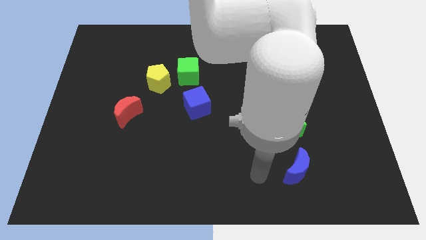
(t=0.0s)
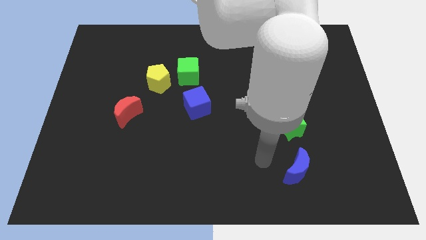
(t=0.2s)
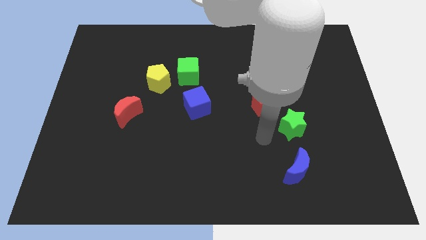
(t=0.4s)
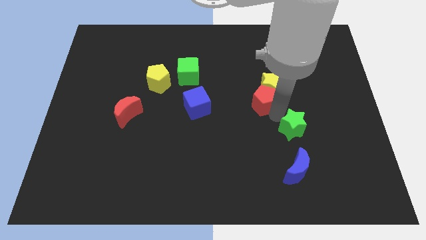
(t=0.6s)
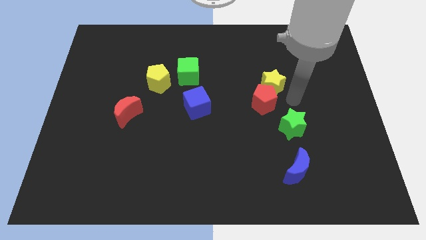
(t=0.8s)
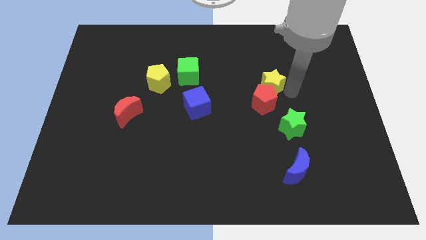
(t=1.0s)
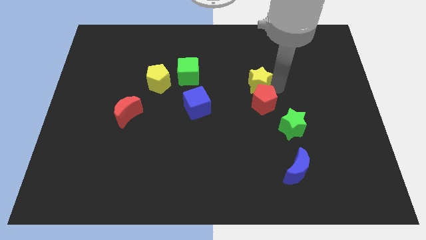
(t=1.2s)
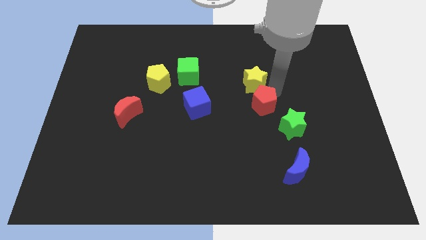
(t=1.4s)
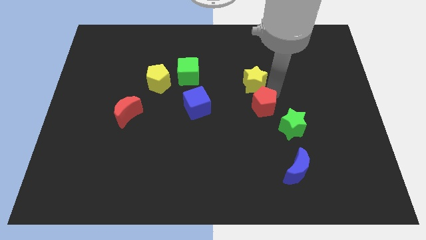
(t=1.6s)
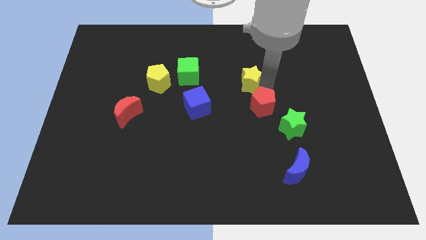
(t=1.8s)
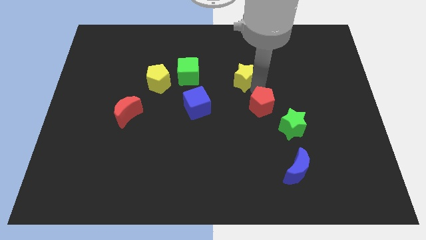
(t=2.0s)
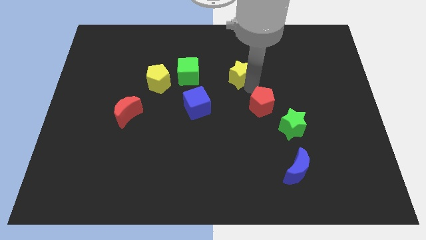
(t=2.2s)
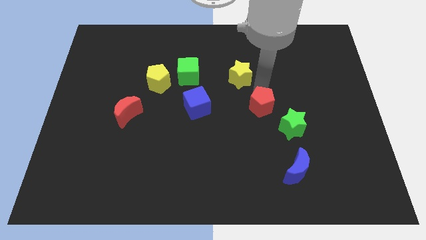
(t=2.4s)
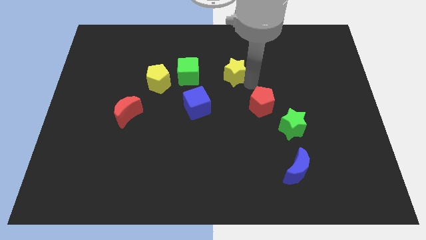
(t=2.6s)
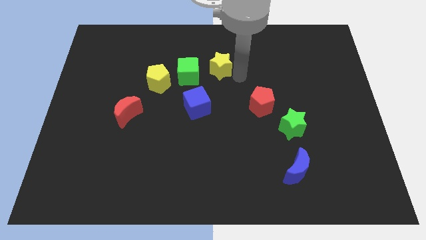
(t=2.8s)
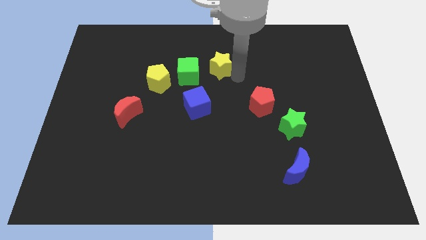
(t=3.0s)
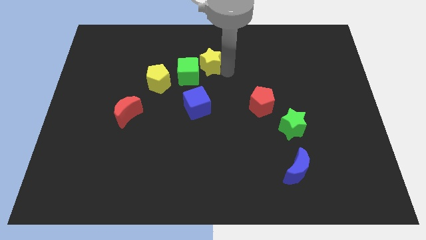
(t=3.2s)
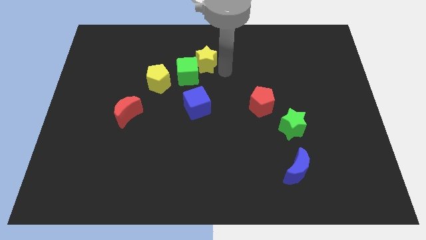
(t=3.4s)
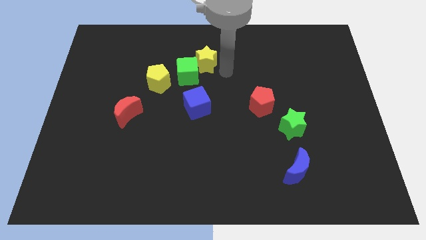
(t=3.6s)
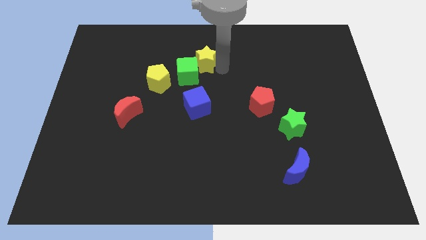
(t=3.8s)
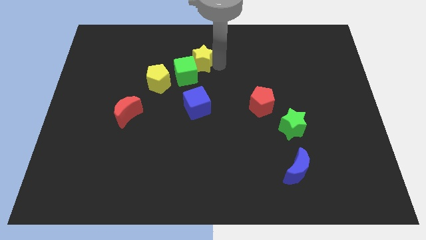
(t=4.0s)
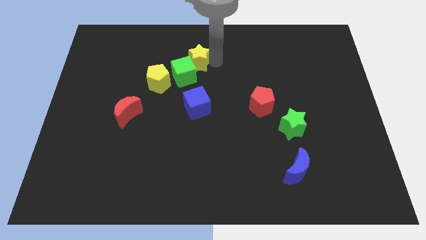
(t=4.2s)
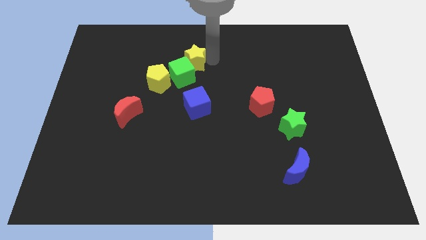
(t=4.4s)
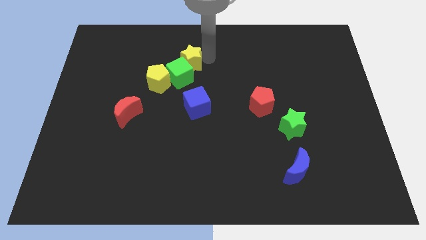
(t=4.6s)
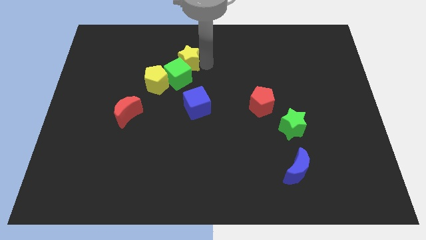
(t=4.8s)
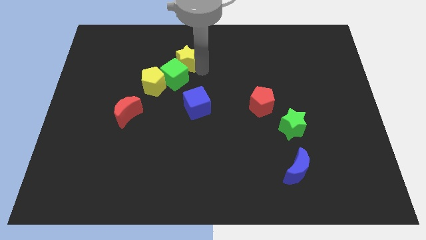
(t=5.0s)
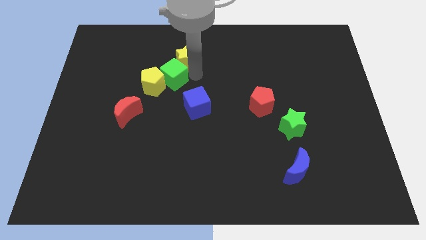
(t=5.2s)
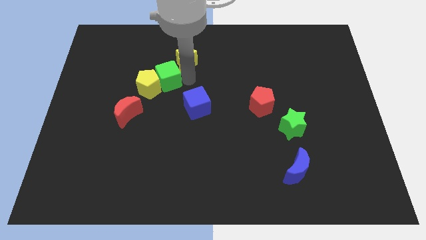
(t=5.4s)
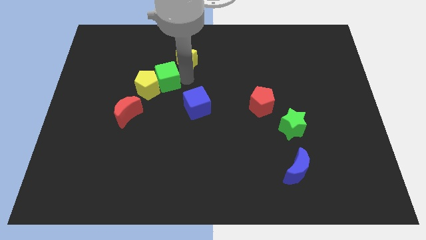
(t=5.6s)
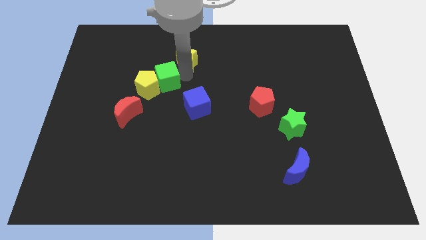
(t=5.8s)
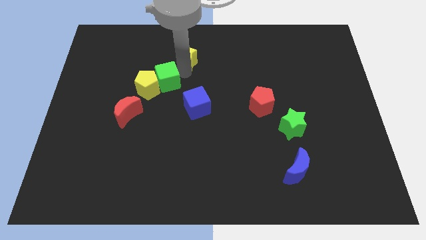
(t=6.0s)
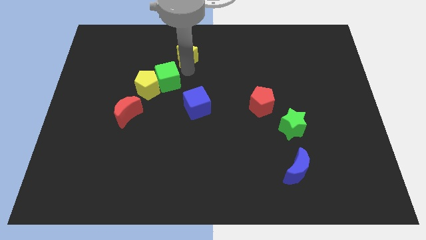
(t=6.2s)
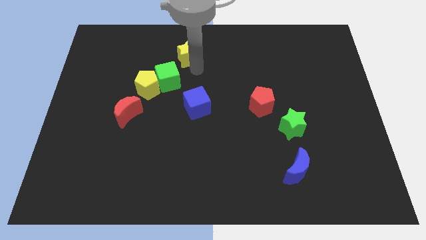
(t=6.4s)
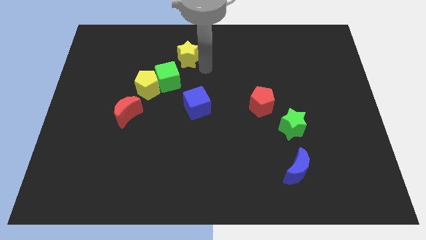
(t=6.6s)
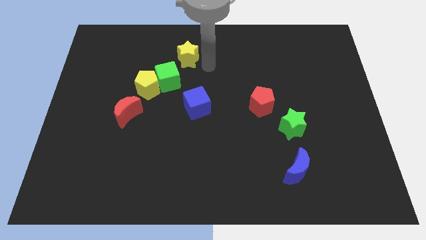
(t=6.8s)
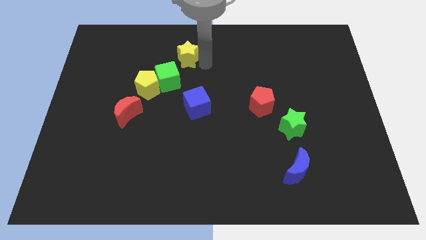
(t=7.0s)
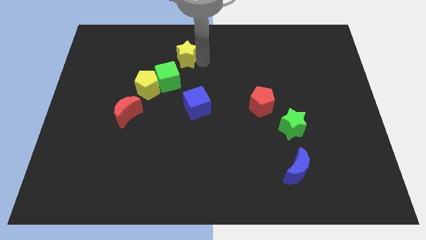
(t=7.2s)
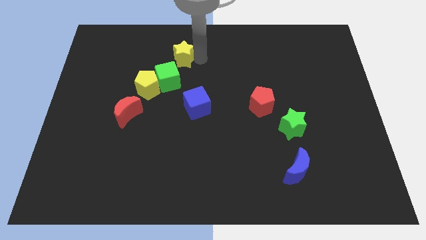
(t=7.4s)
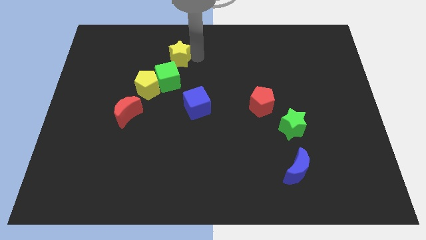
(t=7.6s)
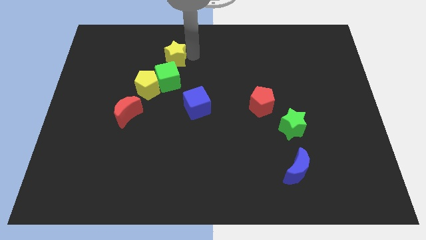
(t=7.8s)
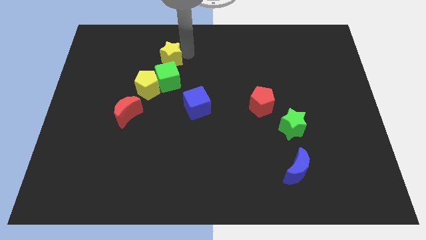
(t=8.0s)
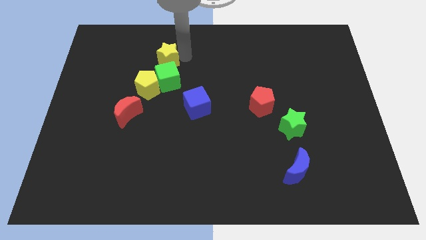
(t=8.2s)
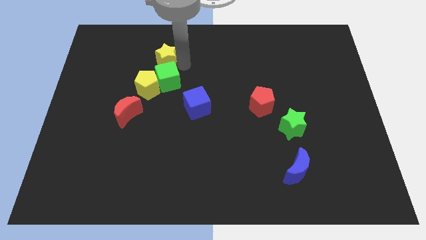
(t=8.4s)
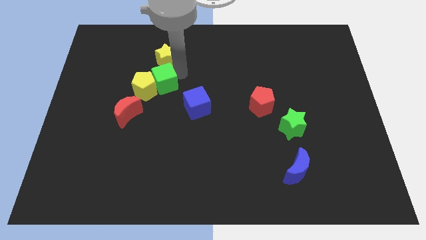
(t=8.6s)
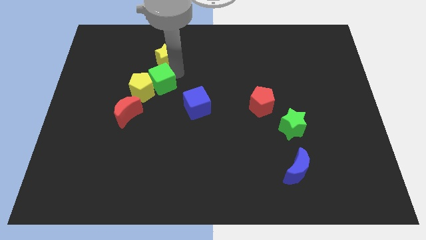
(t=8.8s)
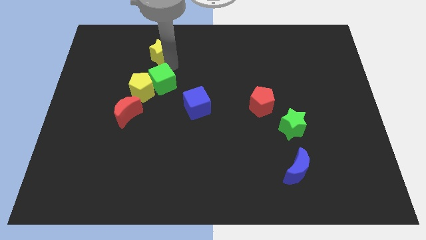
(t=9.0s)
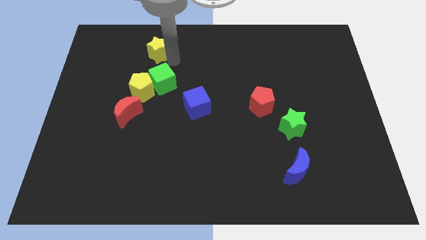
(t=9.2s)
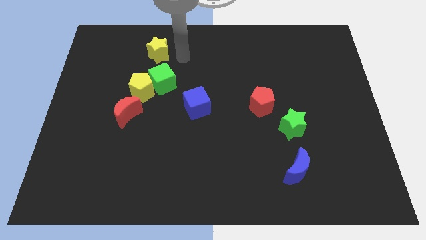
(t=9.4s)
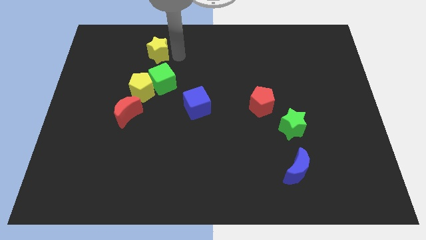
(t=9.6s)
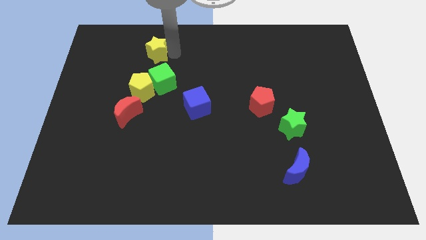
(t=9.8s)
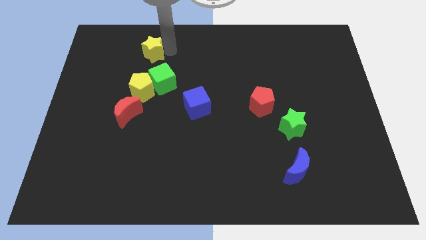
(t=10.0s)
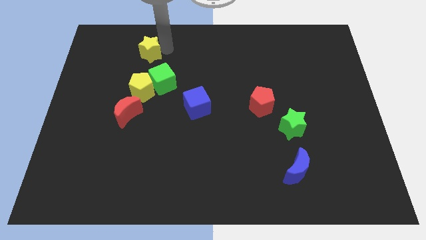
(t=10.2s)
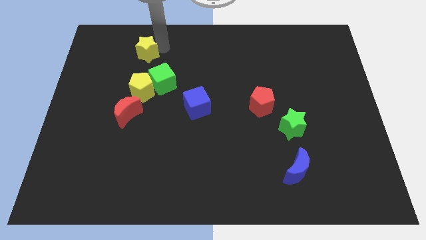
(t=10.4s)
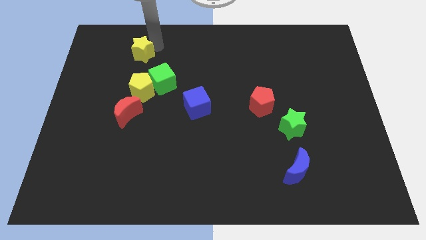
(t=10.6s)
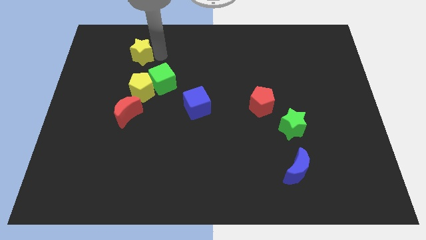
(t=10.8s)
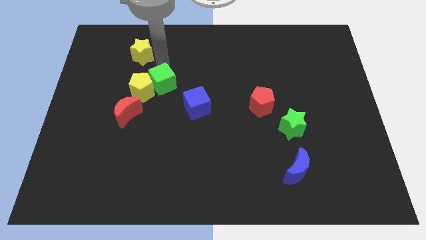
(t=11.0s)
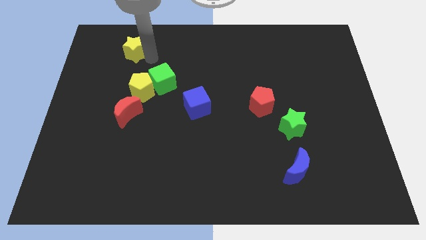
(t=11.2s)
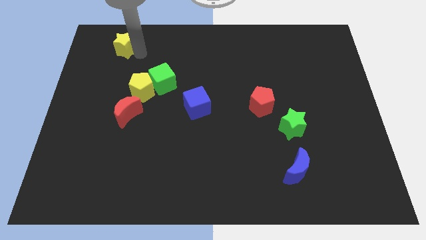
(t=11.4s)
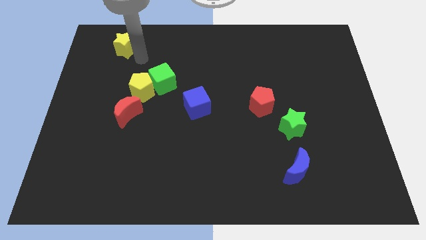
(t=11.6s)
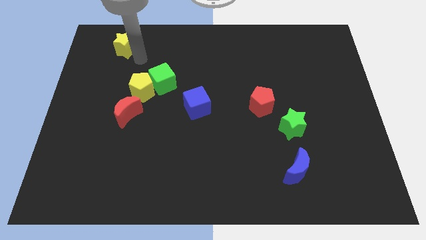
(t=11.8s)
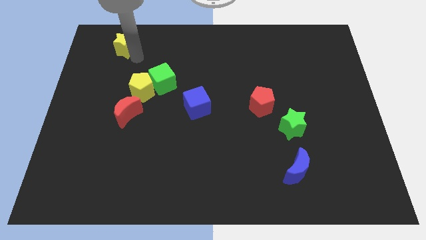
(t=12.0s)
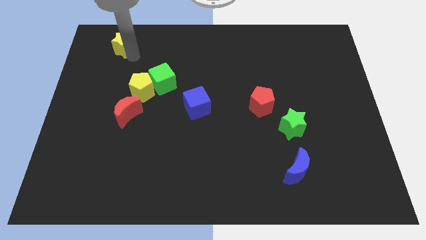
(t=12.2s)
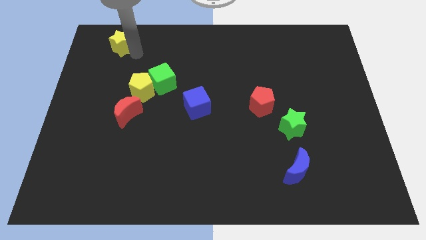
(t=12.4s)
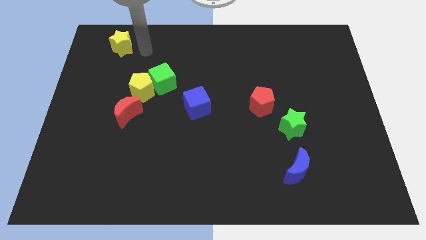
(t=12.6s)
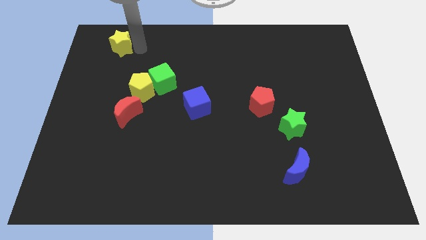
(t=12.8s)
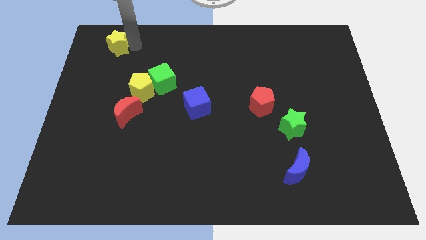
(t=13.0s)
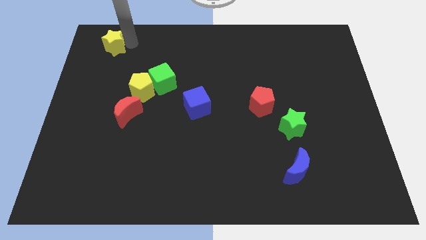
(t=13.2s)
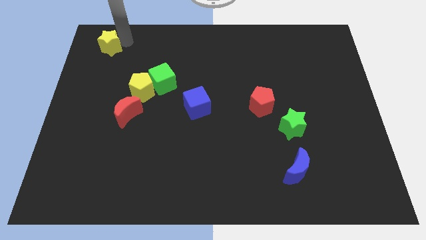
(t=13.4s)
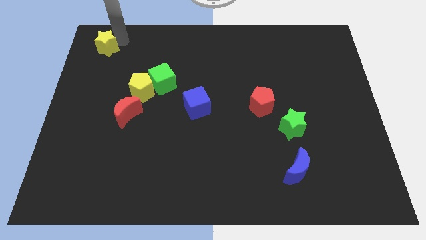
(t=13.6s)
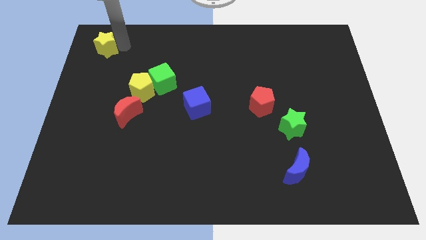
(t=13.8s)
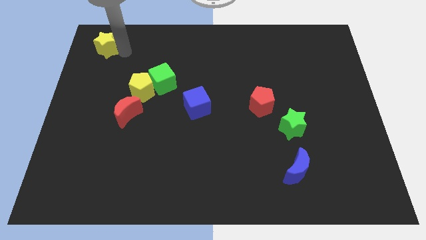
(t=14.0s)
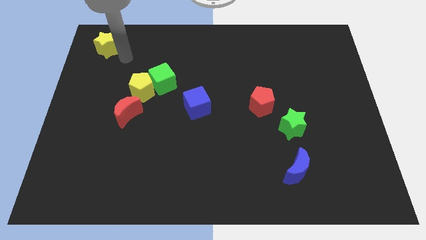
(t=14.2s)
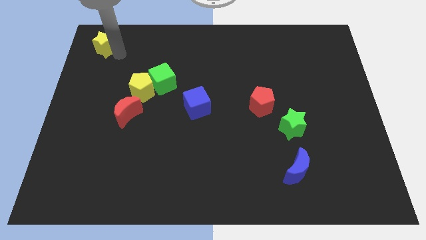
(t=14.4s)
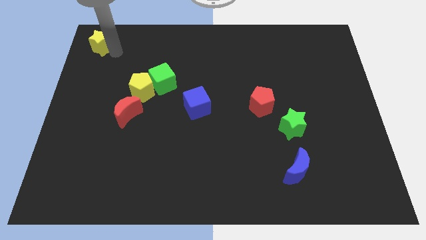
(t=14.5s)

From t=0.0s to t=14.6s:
put the yellow star to the upper left corner
